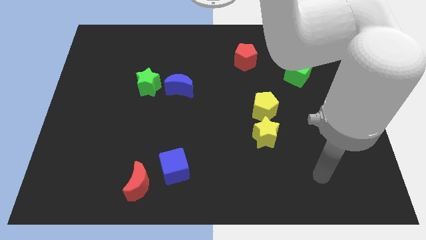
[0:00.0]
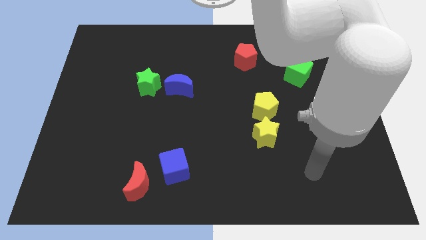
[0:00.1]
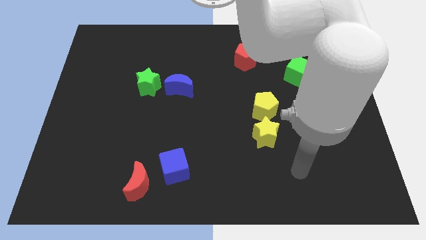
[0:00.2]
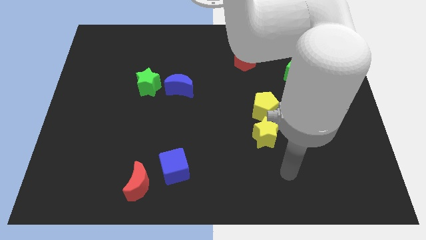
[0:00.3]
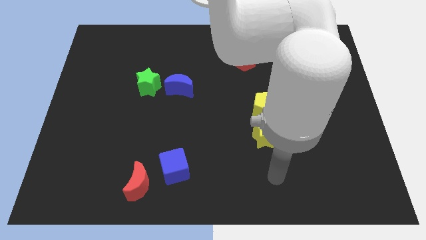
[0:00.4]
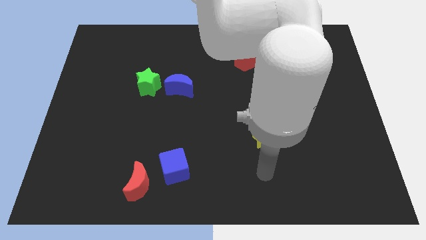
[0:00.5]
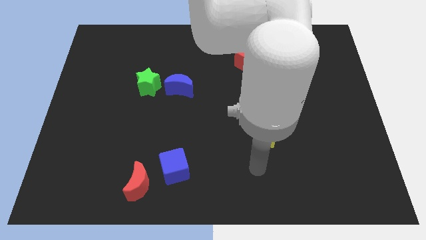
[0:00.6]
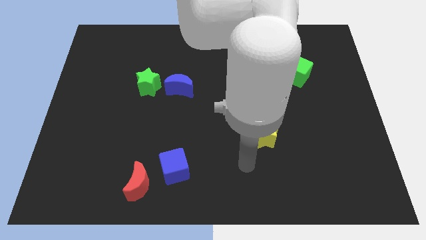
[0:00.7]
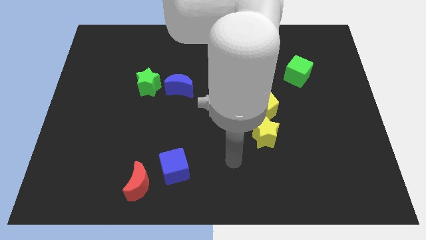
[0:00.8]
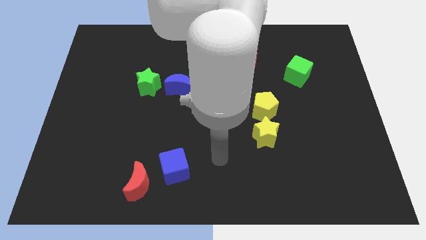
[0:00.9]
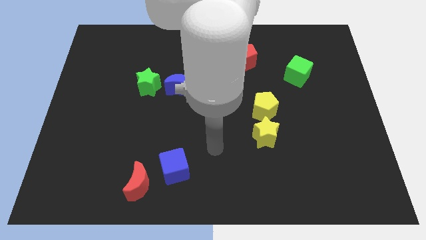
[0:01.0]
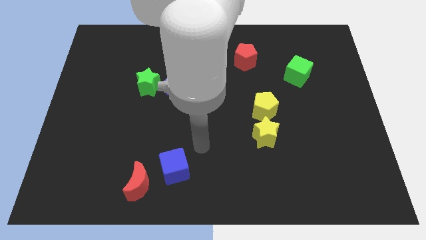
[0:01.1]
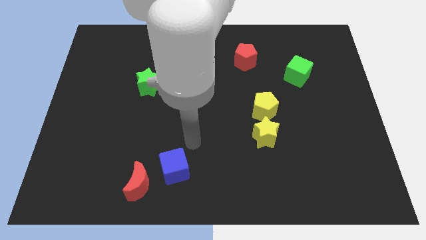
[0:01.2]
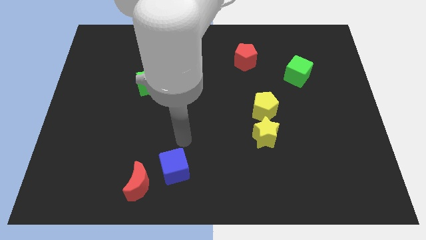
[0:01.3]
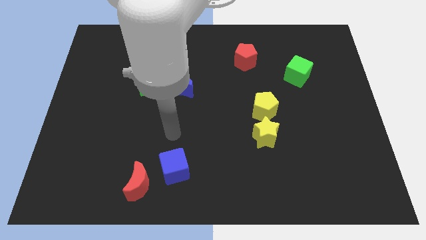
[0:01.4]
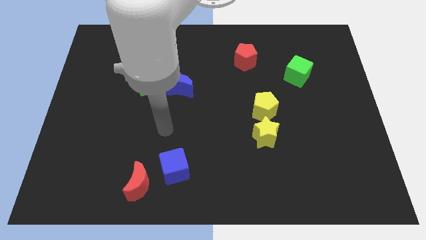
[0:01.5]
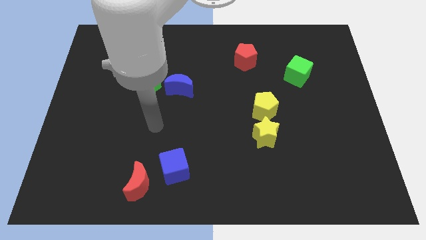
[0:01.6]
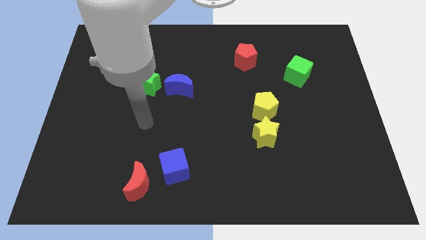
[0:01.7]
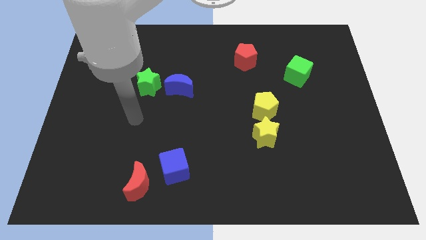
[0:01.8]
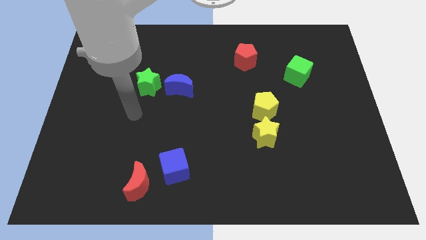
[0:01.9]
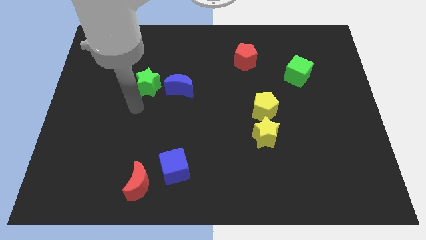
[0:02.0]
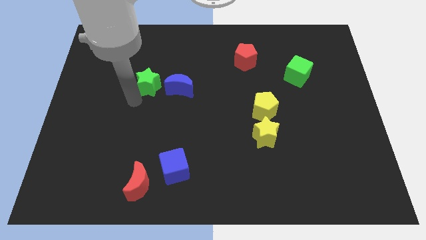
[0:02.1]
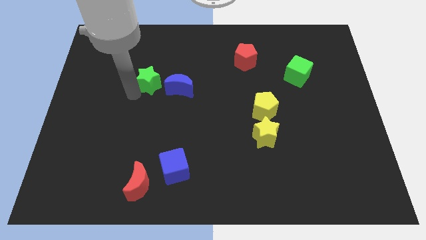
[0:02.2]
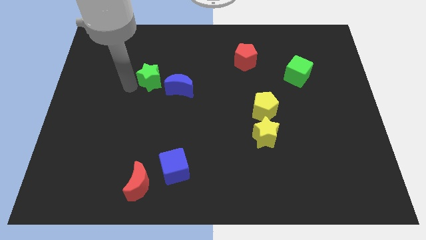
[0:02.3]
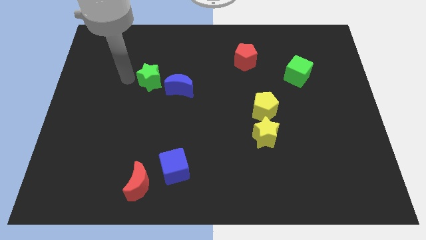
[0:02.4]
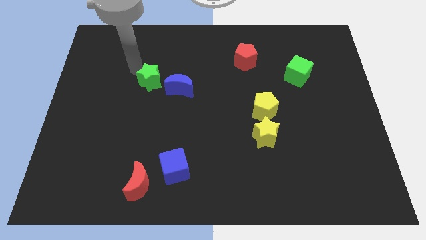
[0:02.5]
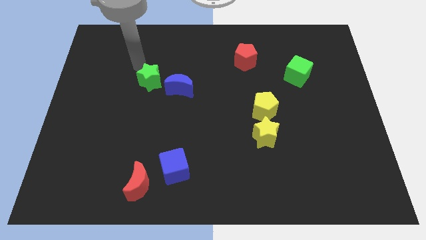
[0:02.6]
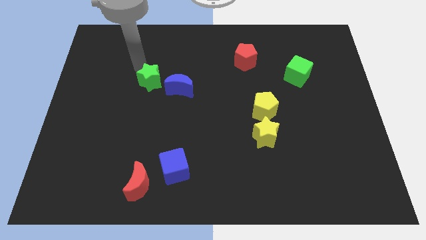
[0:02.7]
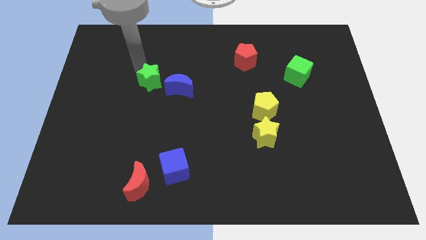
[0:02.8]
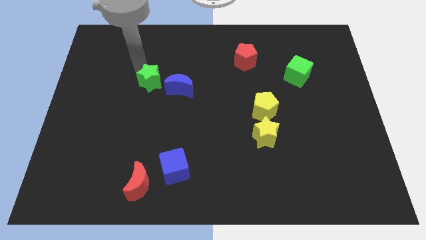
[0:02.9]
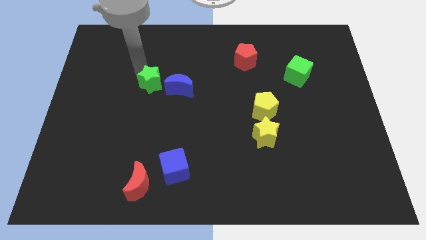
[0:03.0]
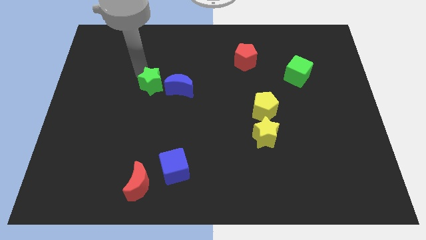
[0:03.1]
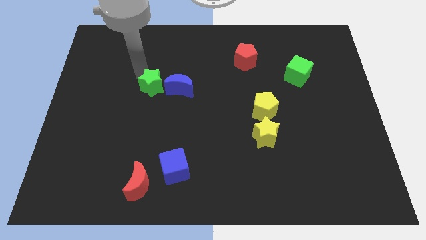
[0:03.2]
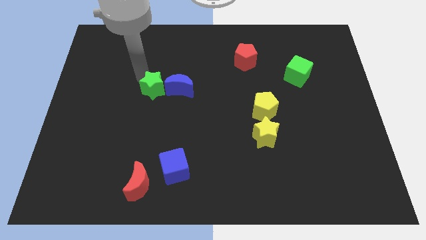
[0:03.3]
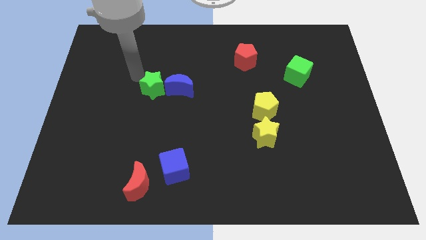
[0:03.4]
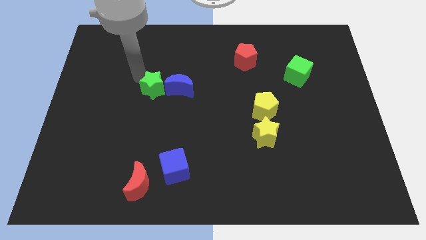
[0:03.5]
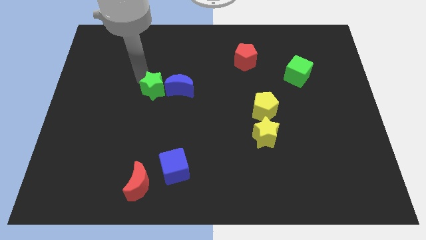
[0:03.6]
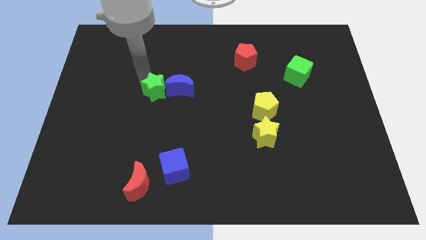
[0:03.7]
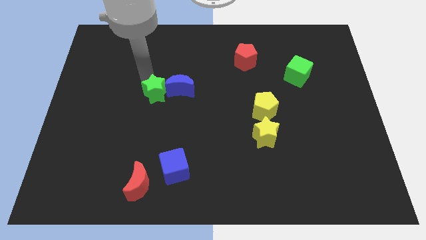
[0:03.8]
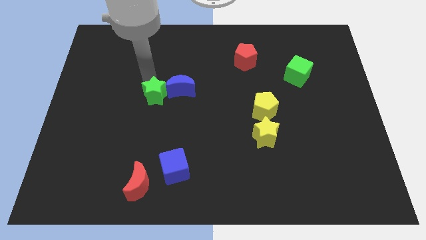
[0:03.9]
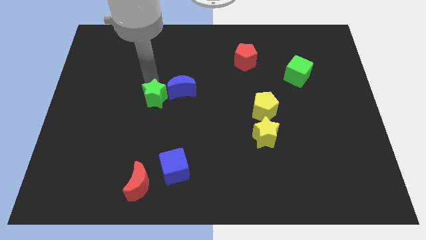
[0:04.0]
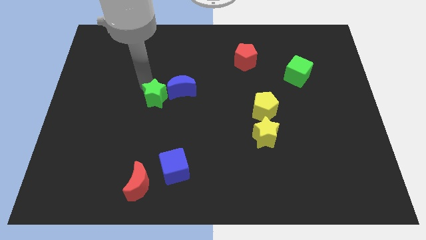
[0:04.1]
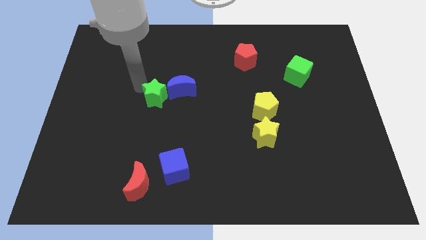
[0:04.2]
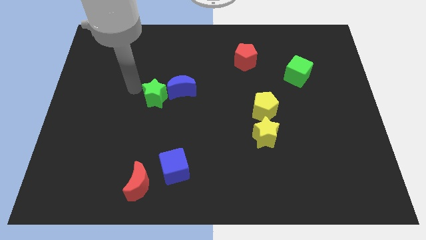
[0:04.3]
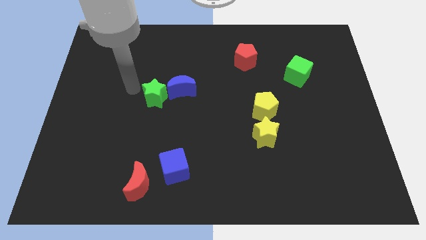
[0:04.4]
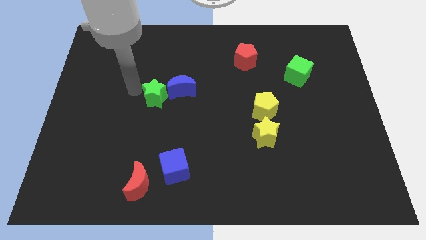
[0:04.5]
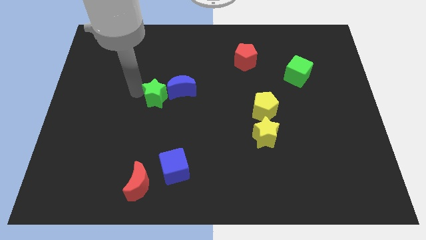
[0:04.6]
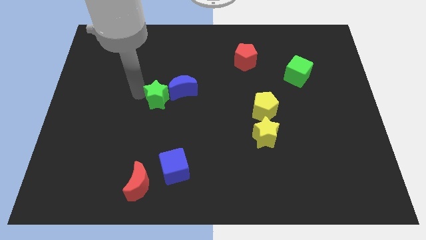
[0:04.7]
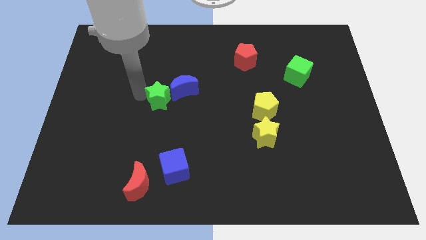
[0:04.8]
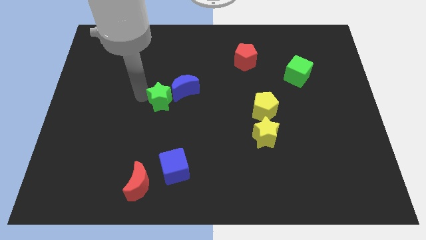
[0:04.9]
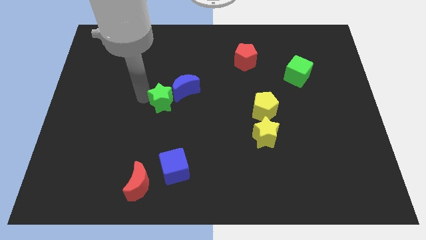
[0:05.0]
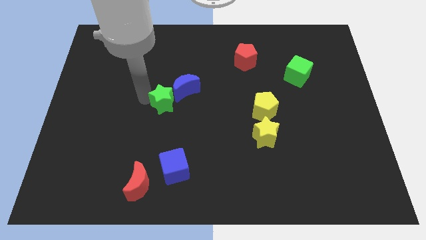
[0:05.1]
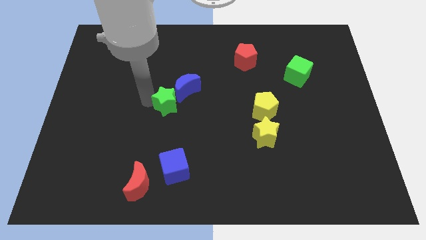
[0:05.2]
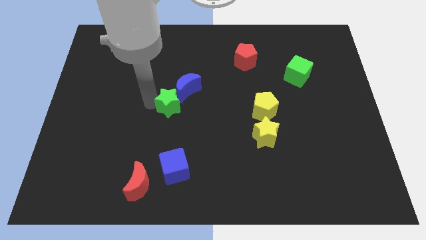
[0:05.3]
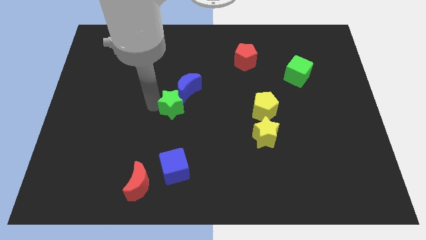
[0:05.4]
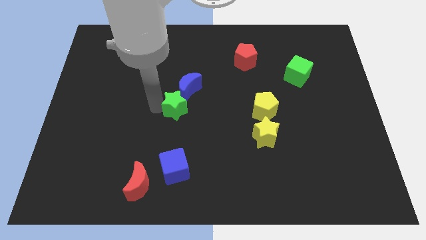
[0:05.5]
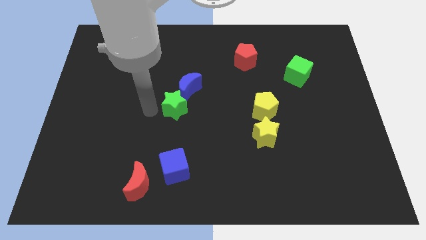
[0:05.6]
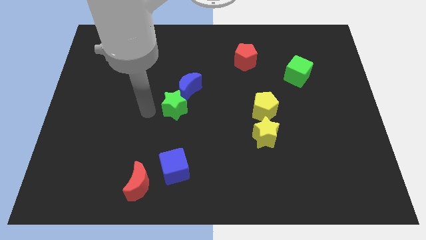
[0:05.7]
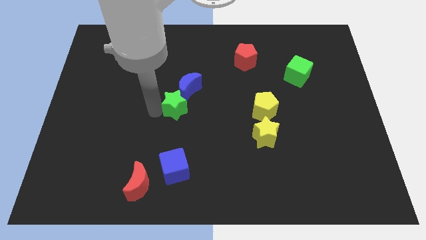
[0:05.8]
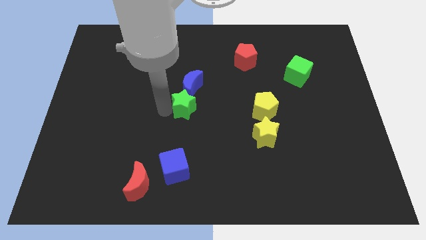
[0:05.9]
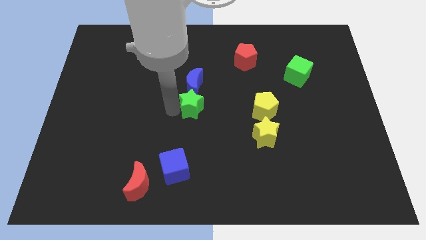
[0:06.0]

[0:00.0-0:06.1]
slide the green star to the bottom right side of the blue moon
